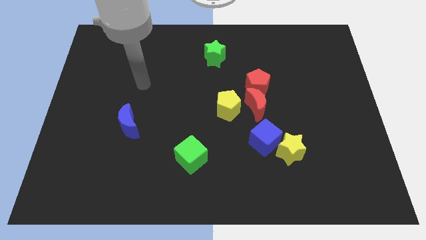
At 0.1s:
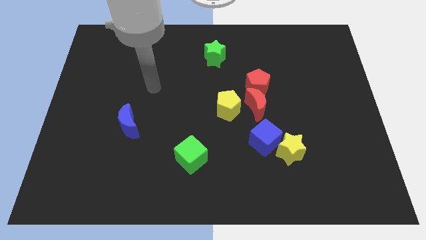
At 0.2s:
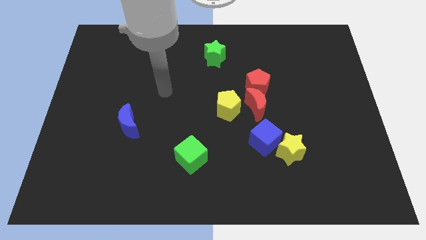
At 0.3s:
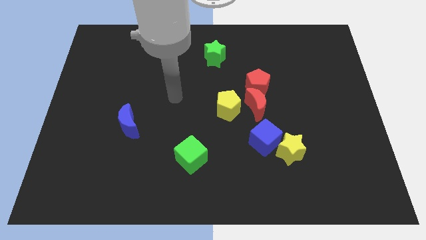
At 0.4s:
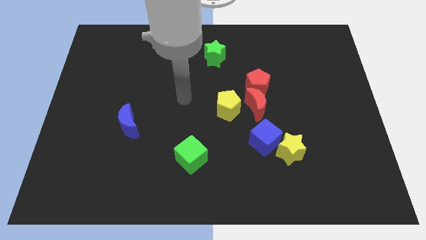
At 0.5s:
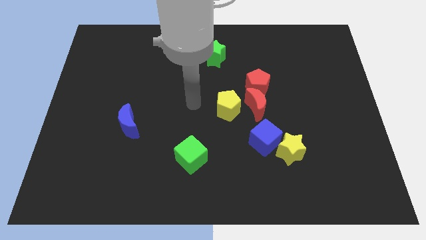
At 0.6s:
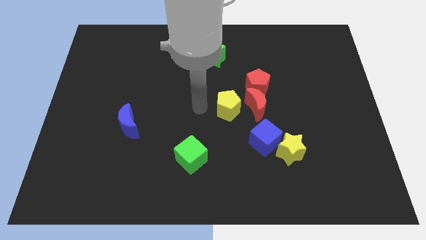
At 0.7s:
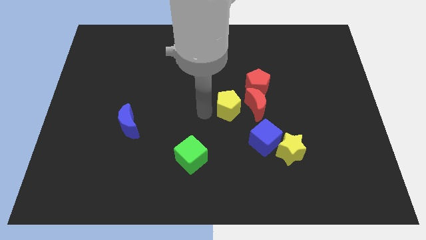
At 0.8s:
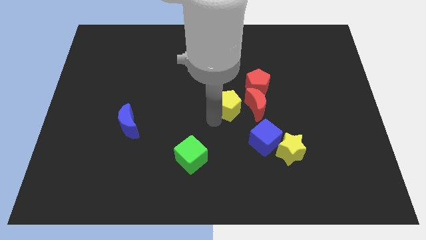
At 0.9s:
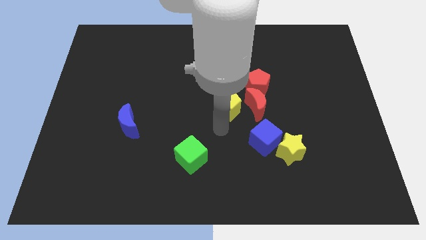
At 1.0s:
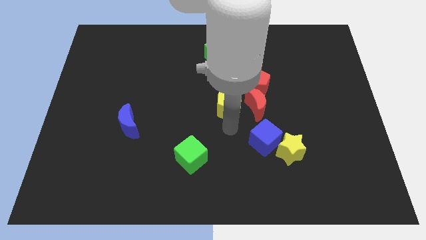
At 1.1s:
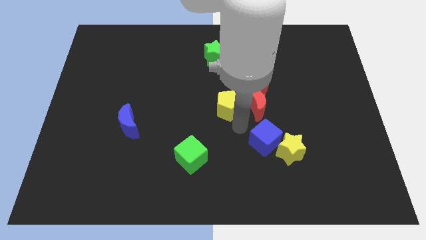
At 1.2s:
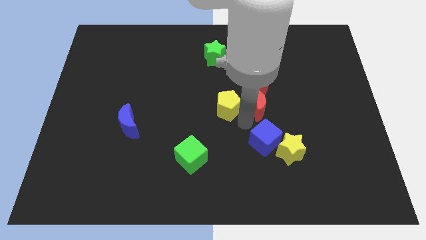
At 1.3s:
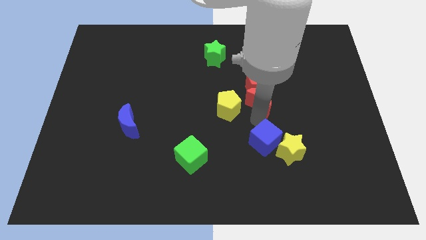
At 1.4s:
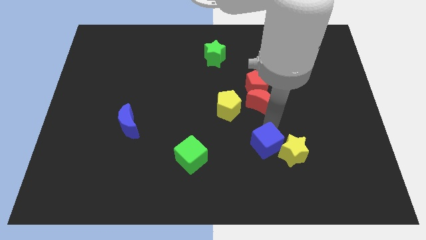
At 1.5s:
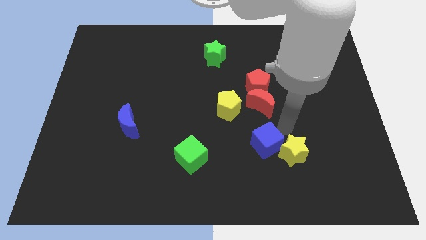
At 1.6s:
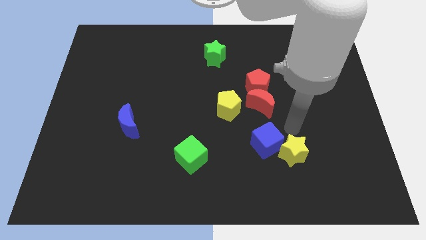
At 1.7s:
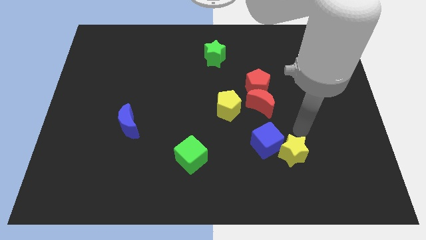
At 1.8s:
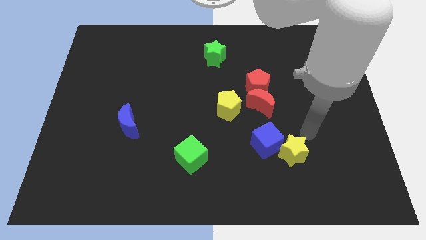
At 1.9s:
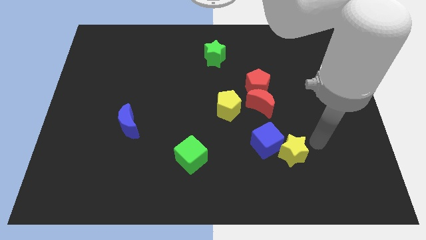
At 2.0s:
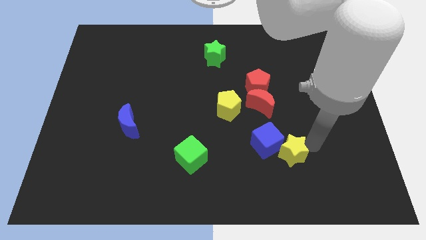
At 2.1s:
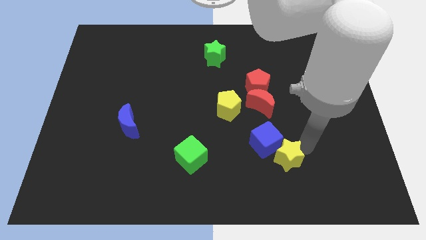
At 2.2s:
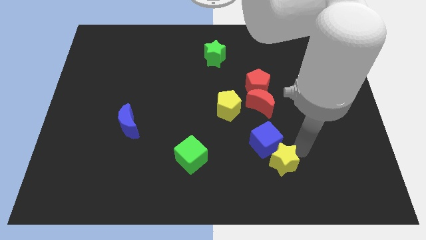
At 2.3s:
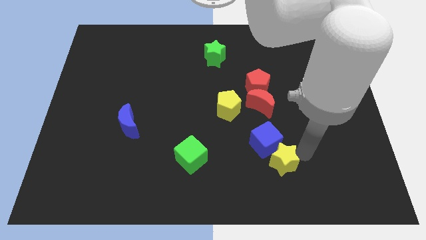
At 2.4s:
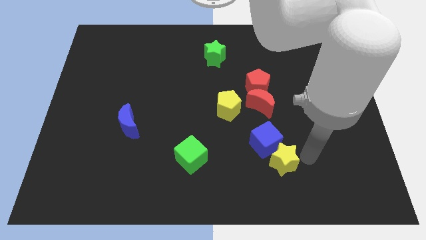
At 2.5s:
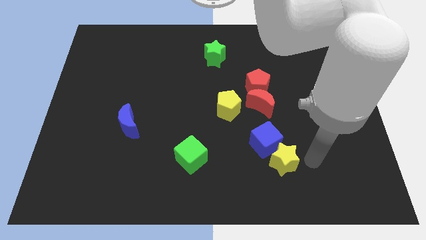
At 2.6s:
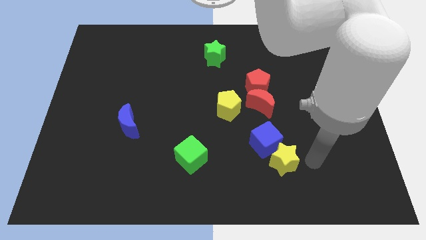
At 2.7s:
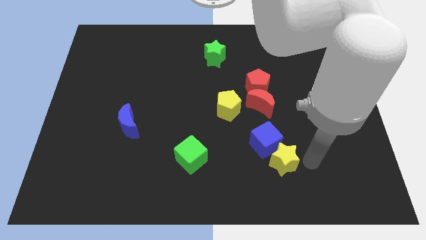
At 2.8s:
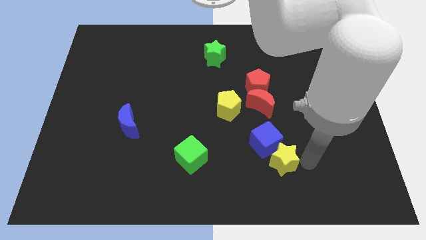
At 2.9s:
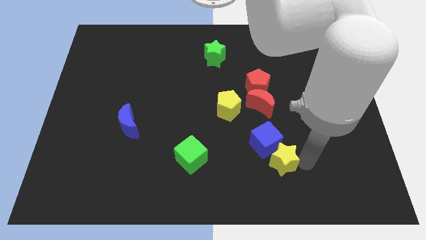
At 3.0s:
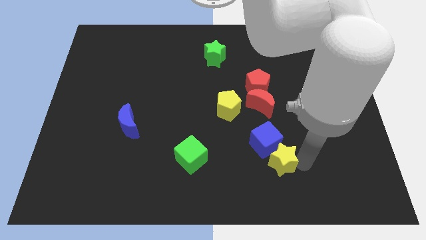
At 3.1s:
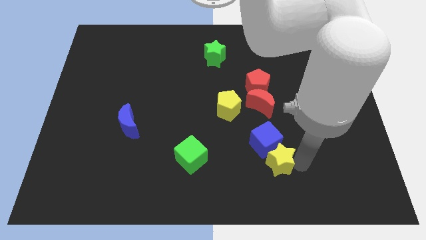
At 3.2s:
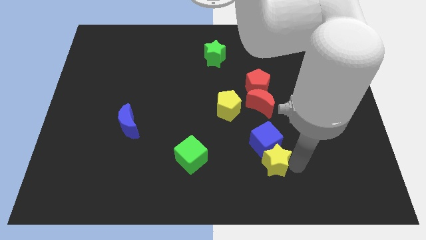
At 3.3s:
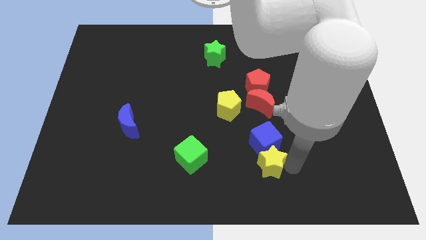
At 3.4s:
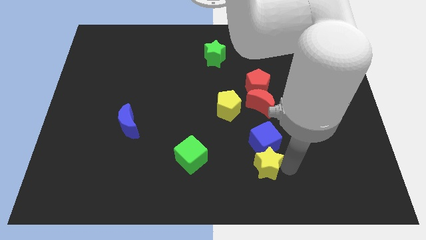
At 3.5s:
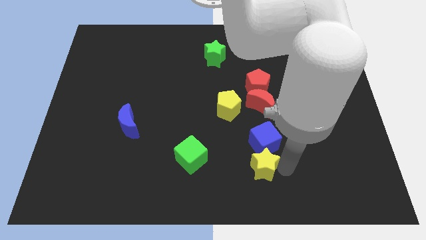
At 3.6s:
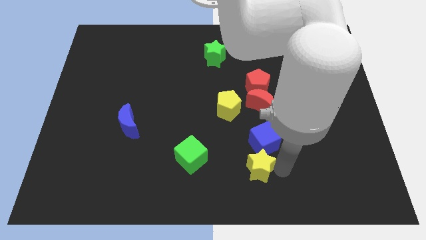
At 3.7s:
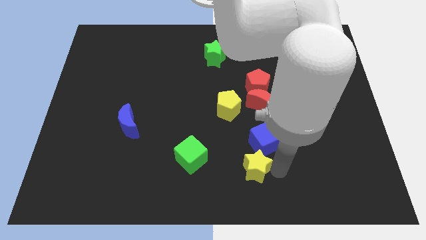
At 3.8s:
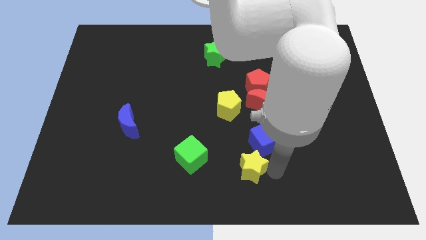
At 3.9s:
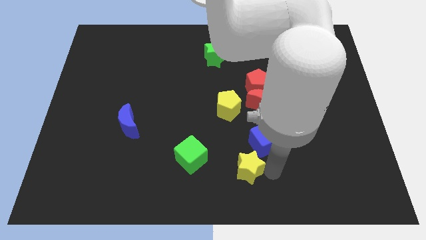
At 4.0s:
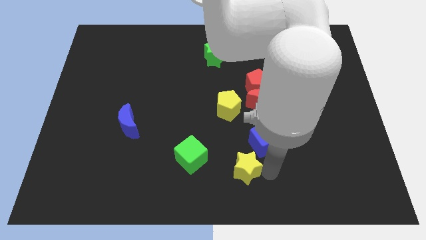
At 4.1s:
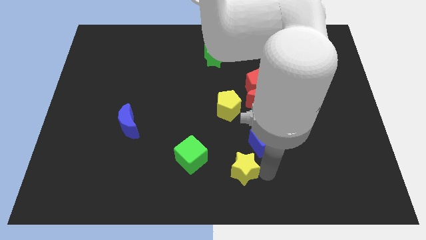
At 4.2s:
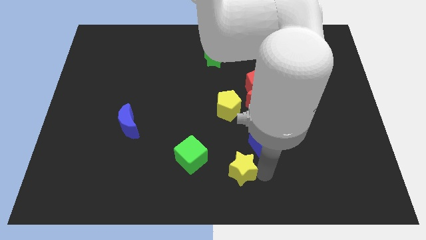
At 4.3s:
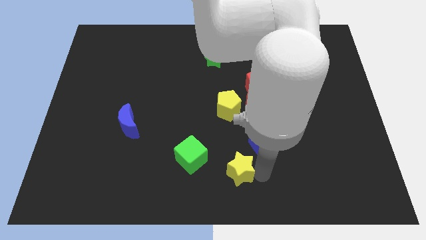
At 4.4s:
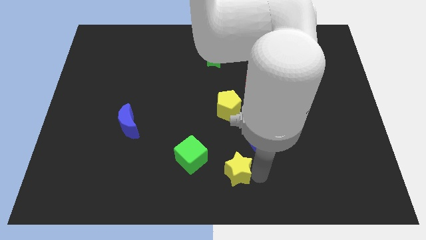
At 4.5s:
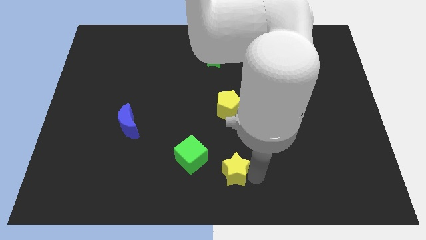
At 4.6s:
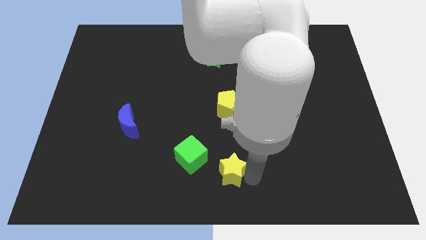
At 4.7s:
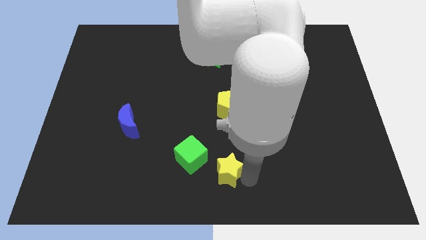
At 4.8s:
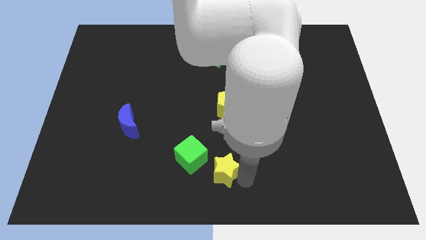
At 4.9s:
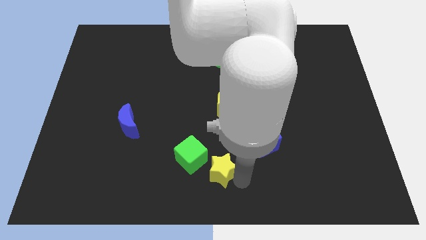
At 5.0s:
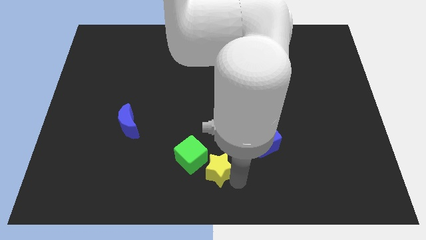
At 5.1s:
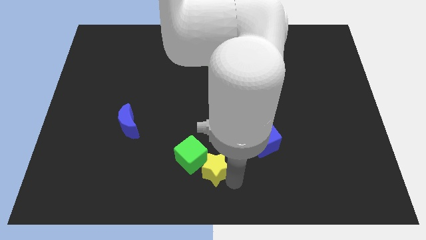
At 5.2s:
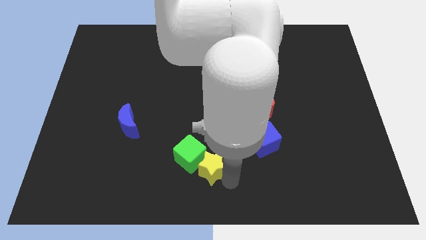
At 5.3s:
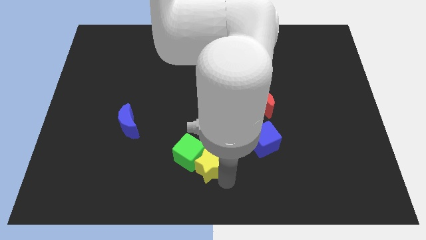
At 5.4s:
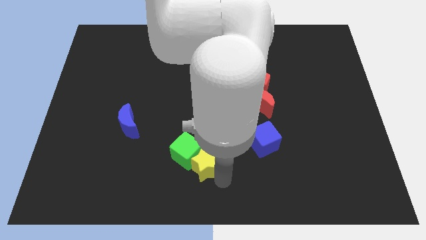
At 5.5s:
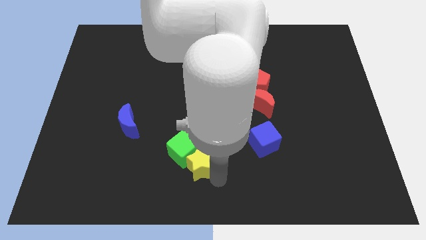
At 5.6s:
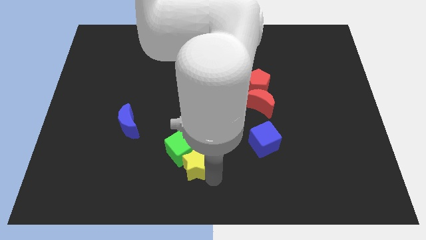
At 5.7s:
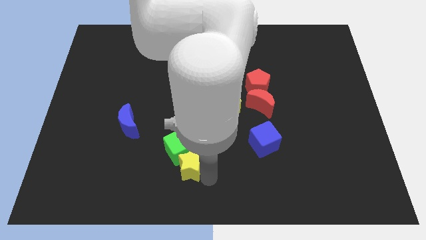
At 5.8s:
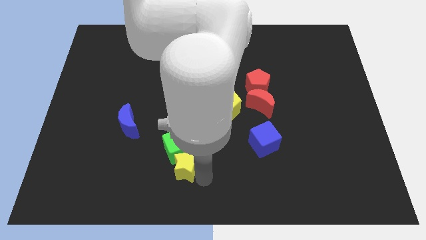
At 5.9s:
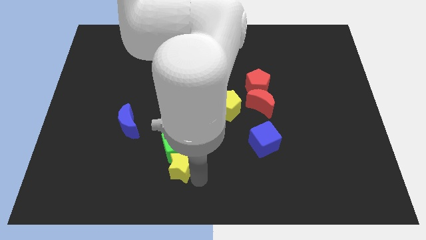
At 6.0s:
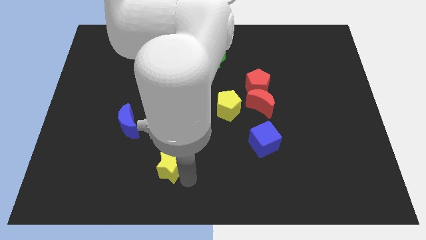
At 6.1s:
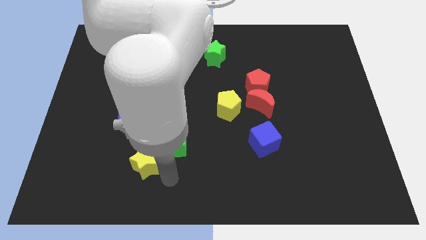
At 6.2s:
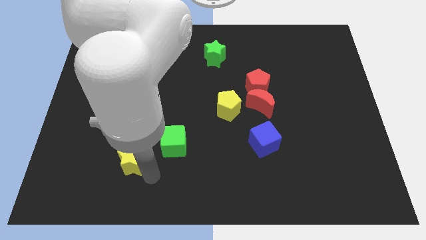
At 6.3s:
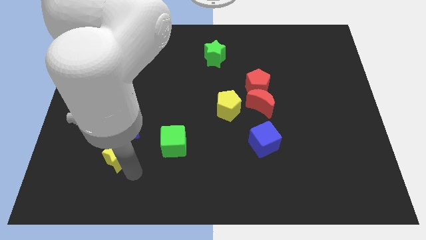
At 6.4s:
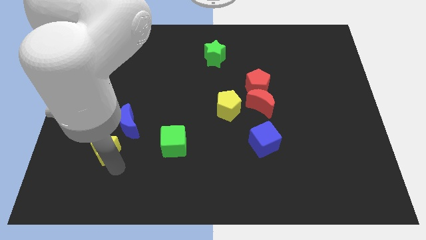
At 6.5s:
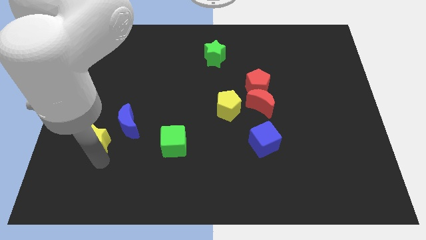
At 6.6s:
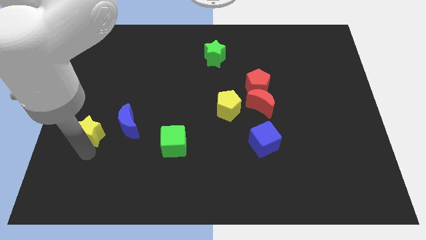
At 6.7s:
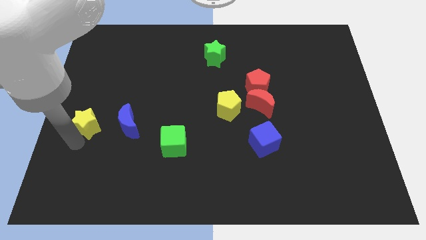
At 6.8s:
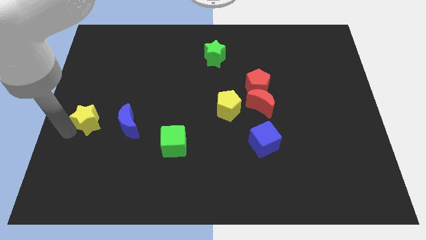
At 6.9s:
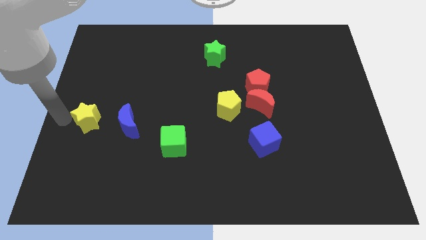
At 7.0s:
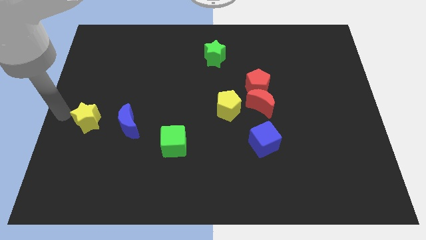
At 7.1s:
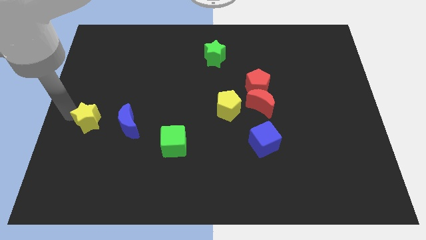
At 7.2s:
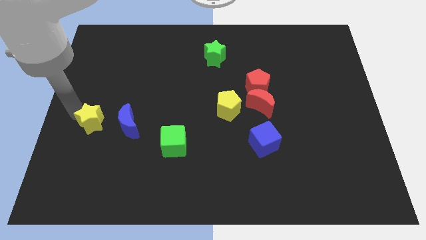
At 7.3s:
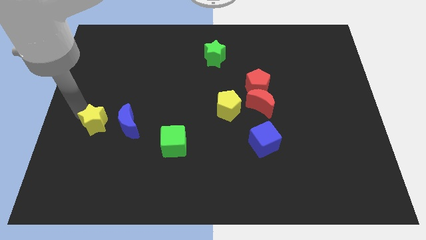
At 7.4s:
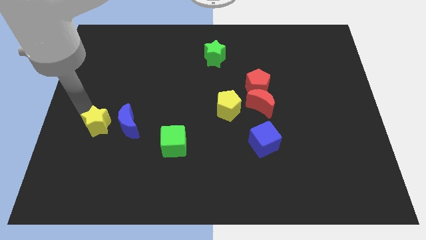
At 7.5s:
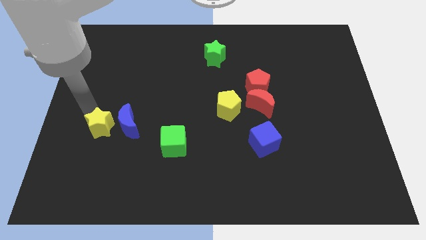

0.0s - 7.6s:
put the yellow star to the blue moon

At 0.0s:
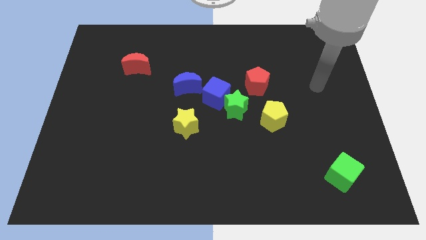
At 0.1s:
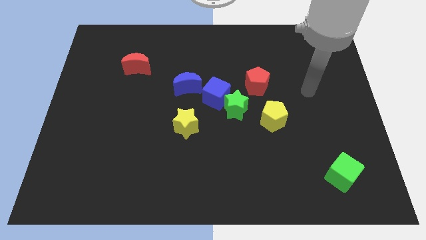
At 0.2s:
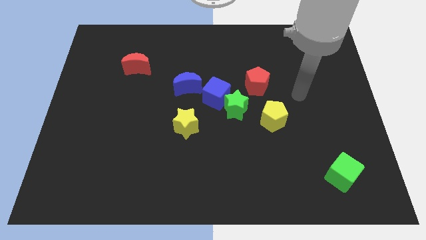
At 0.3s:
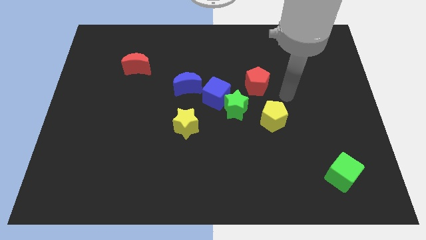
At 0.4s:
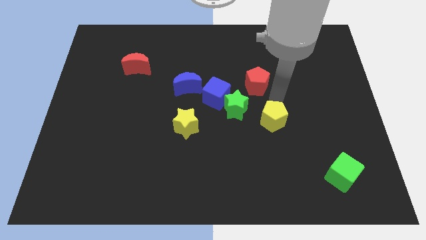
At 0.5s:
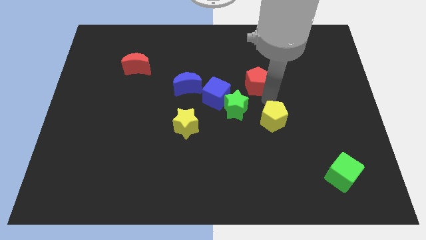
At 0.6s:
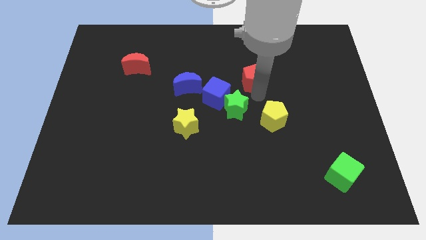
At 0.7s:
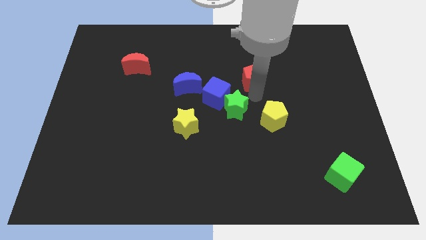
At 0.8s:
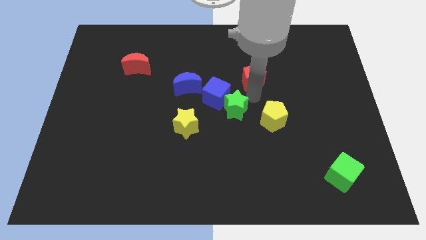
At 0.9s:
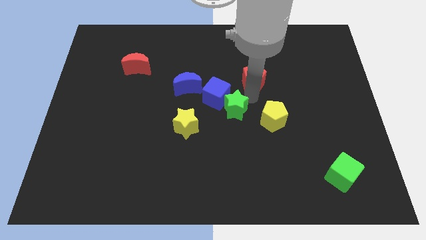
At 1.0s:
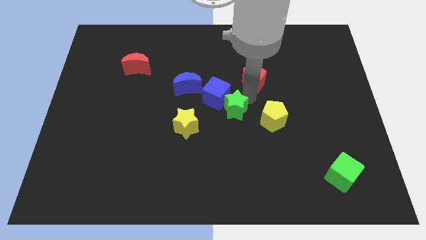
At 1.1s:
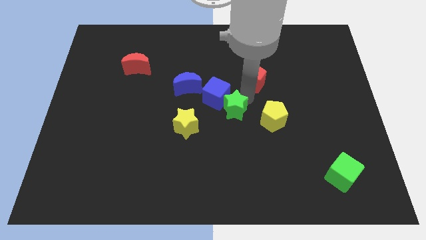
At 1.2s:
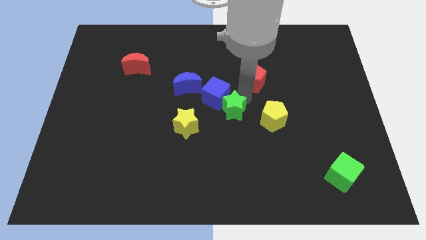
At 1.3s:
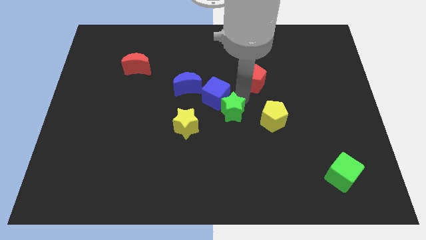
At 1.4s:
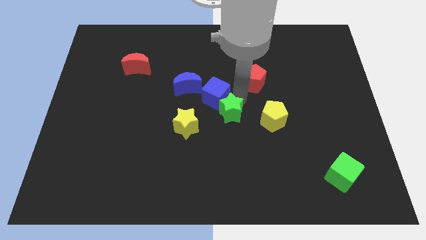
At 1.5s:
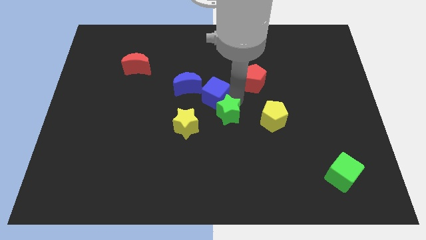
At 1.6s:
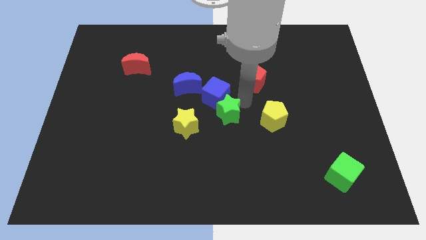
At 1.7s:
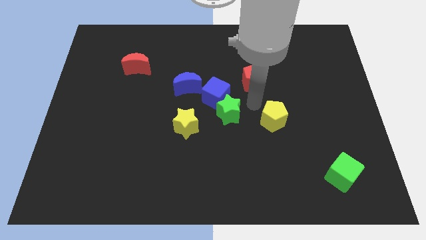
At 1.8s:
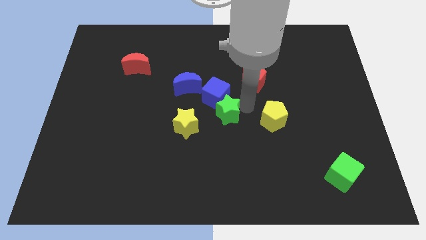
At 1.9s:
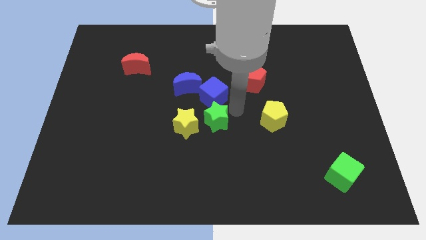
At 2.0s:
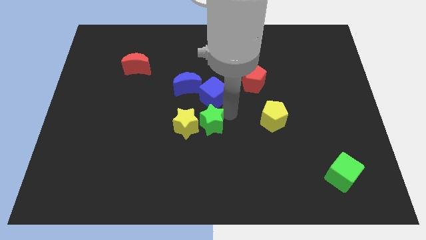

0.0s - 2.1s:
move the green star close to the yellow star
